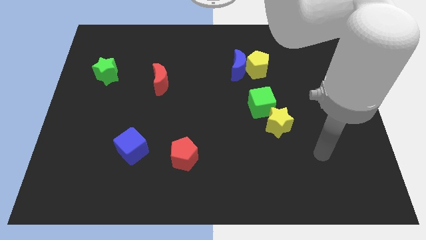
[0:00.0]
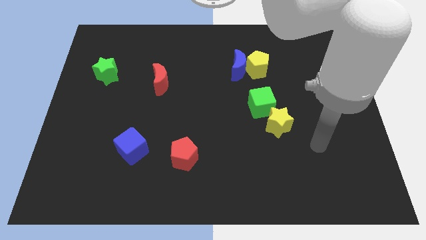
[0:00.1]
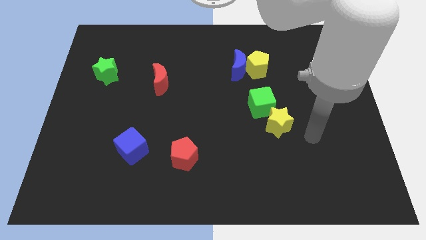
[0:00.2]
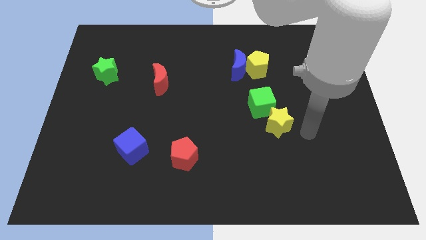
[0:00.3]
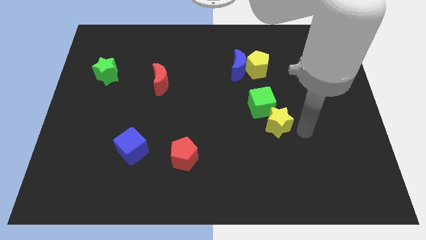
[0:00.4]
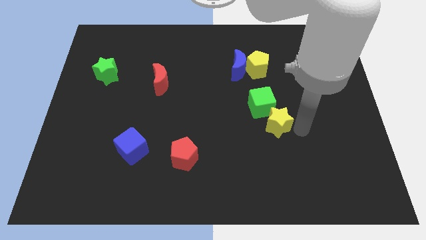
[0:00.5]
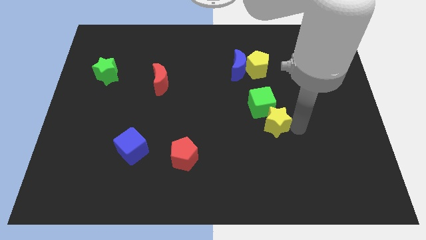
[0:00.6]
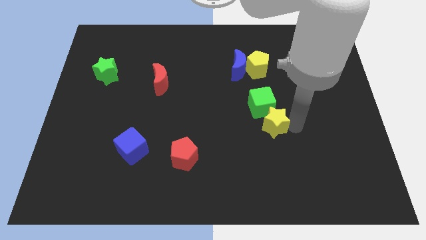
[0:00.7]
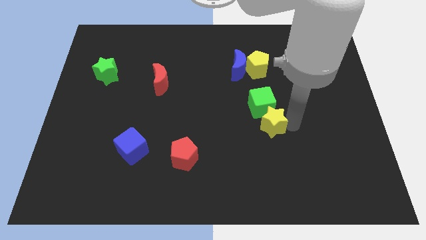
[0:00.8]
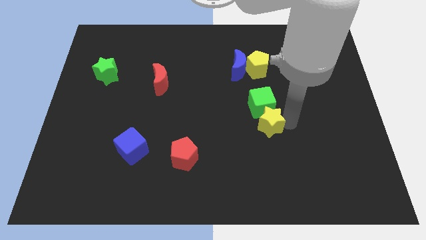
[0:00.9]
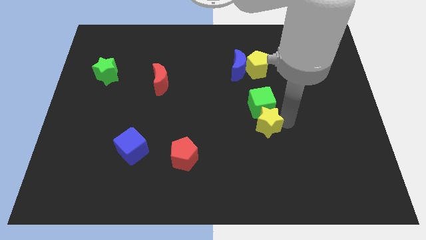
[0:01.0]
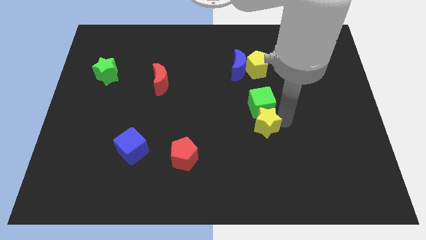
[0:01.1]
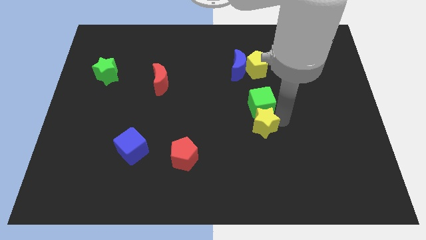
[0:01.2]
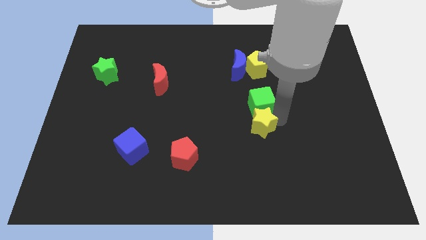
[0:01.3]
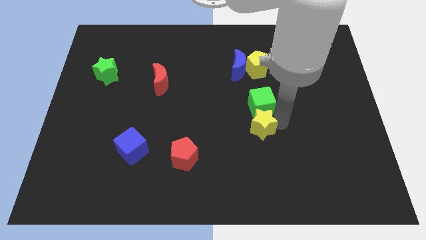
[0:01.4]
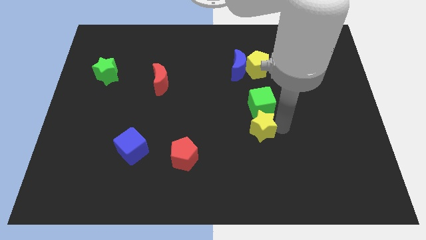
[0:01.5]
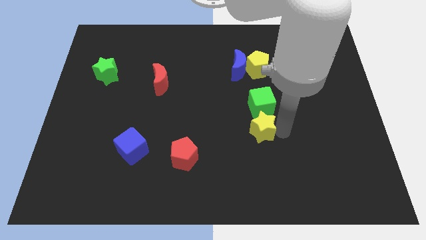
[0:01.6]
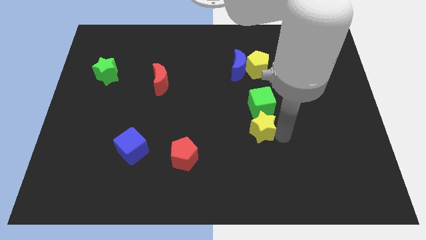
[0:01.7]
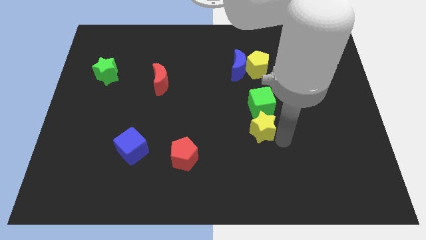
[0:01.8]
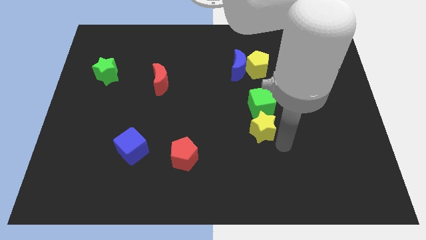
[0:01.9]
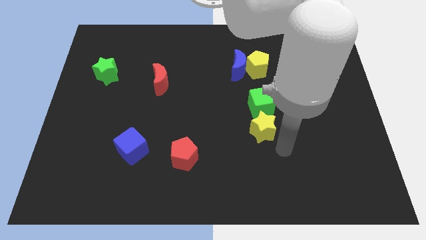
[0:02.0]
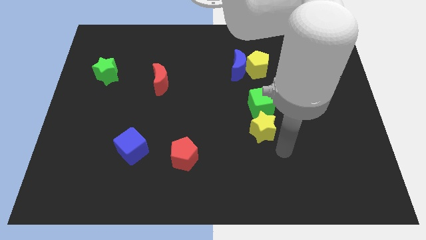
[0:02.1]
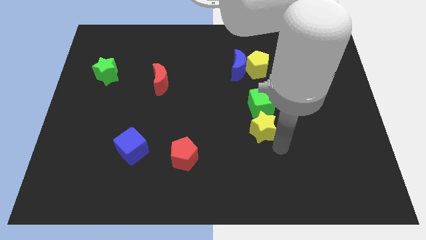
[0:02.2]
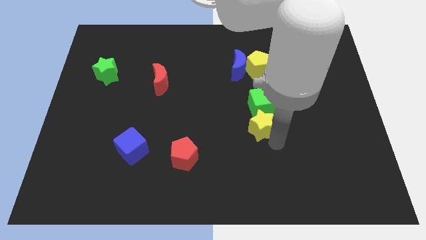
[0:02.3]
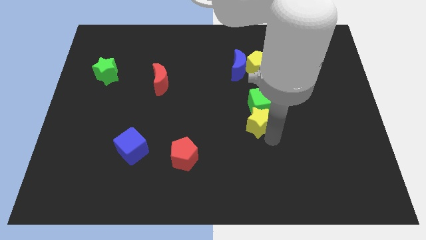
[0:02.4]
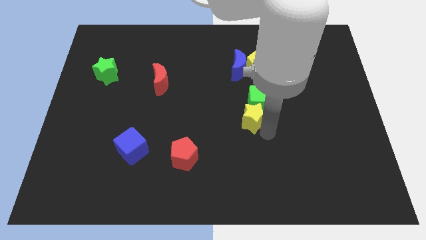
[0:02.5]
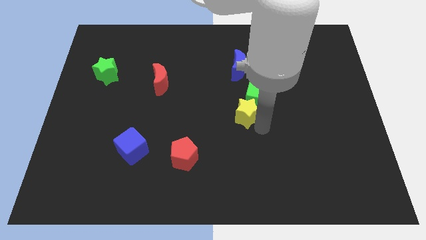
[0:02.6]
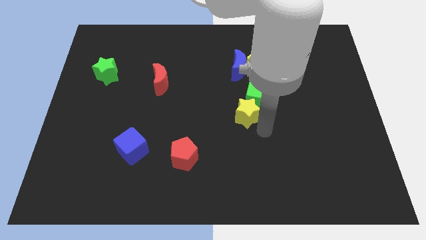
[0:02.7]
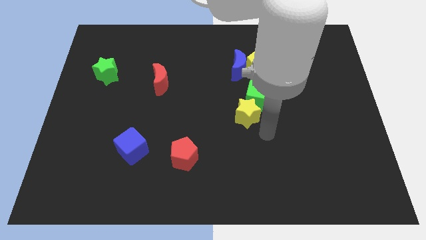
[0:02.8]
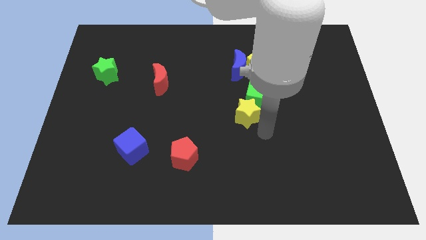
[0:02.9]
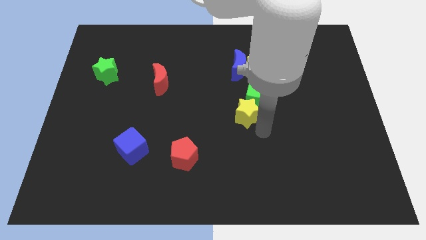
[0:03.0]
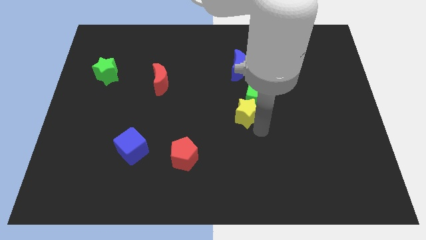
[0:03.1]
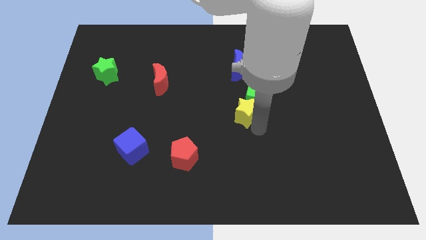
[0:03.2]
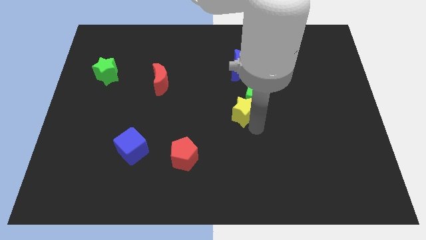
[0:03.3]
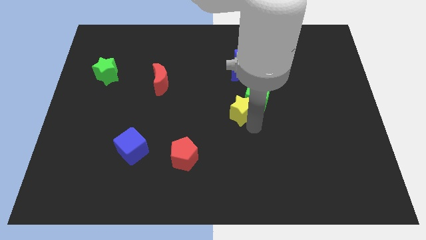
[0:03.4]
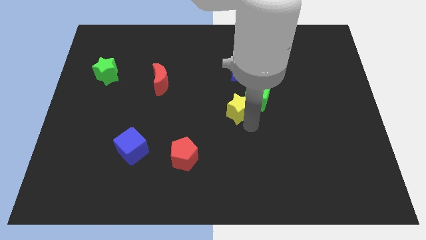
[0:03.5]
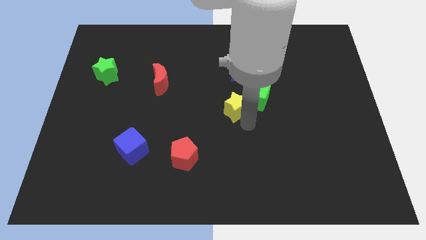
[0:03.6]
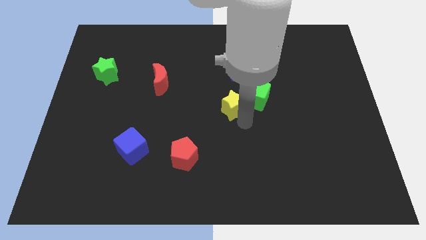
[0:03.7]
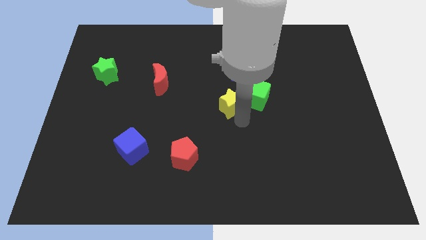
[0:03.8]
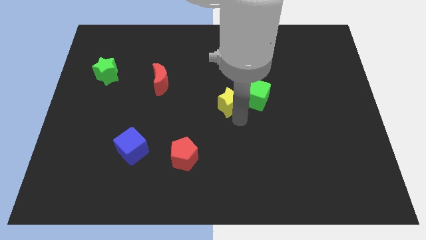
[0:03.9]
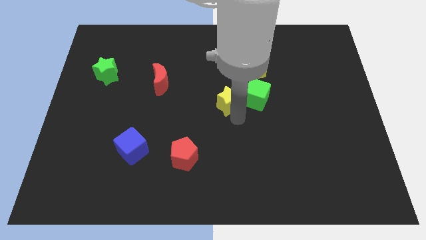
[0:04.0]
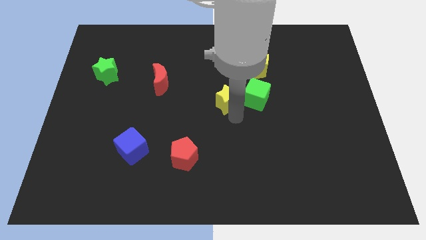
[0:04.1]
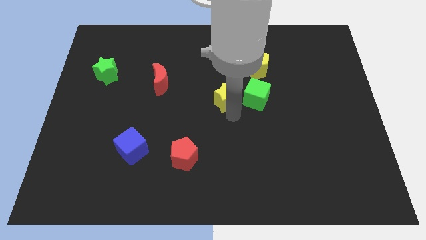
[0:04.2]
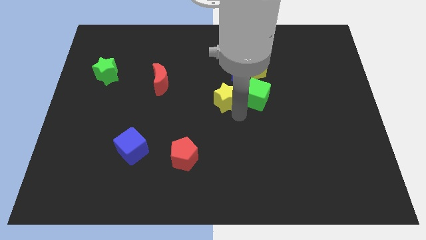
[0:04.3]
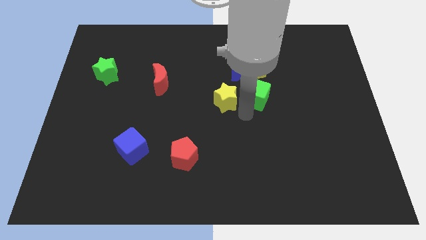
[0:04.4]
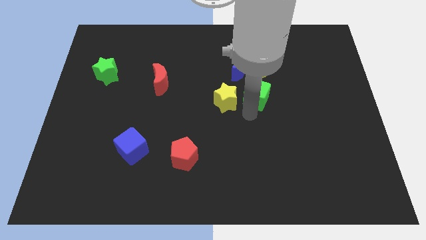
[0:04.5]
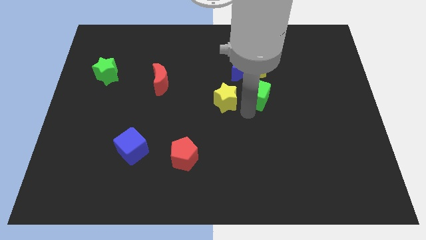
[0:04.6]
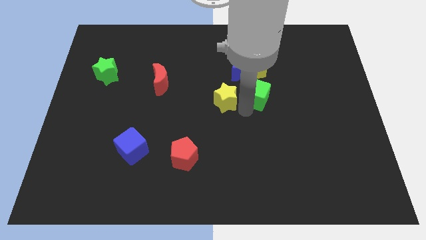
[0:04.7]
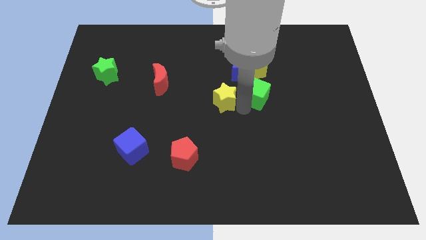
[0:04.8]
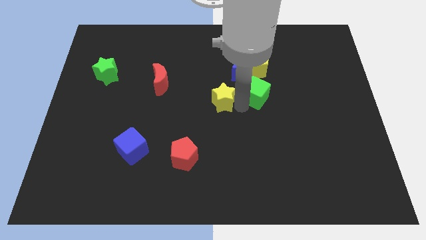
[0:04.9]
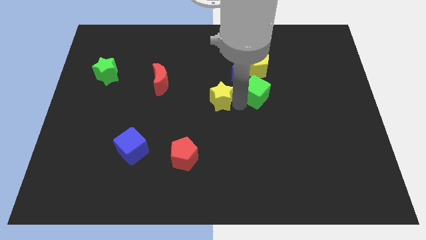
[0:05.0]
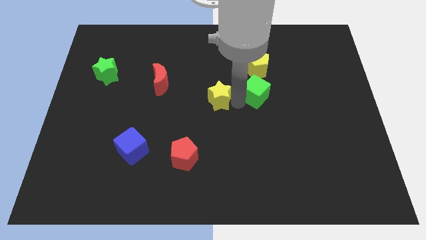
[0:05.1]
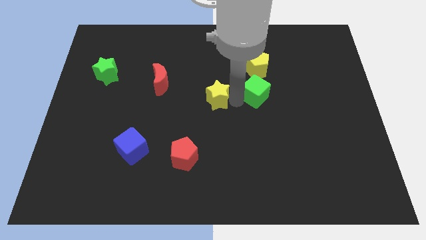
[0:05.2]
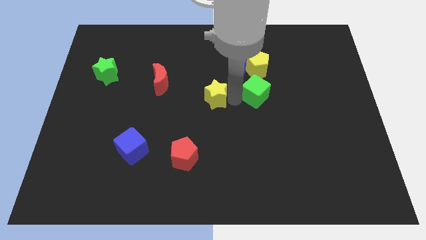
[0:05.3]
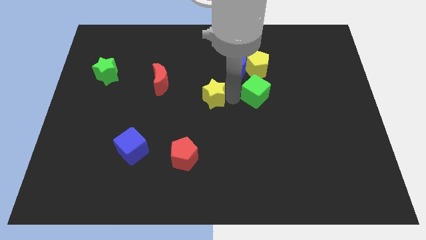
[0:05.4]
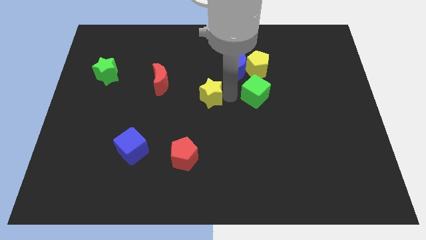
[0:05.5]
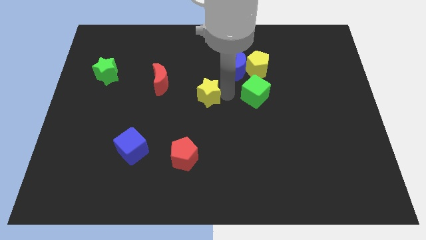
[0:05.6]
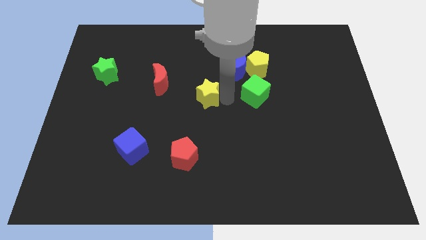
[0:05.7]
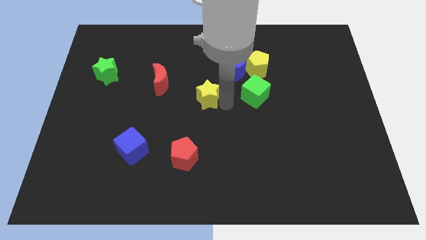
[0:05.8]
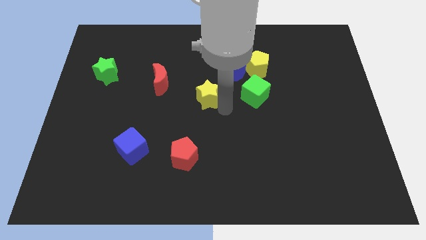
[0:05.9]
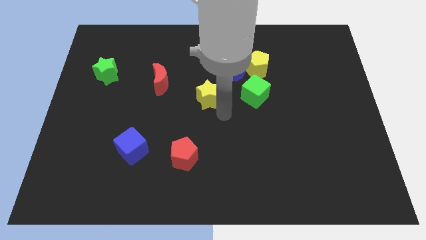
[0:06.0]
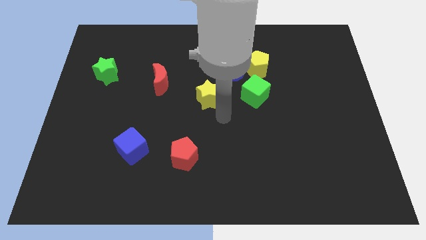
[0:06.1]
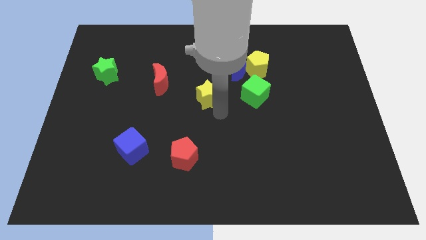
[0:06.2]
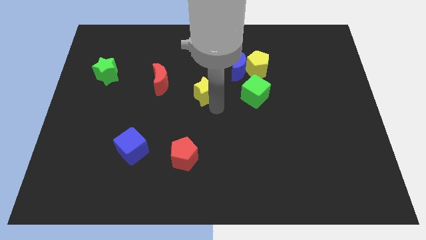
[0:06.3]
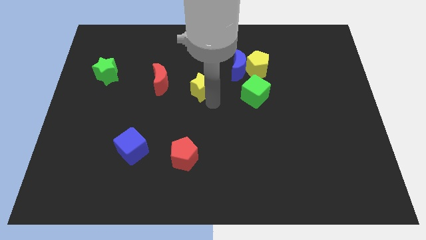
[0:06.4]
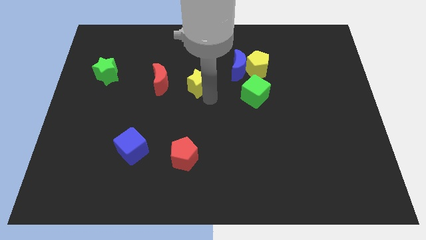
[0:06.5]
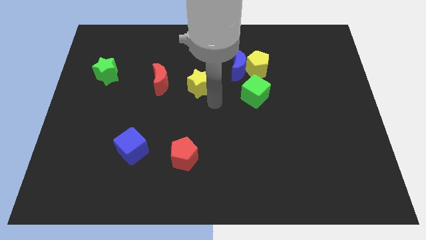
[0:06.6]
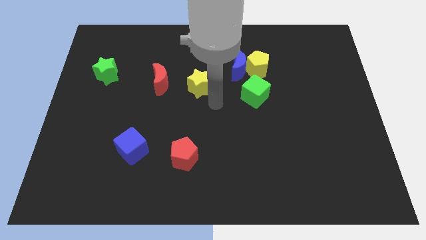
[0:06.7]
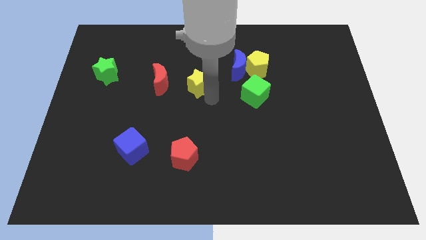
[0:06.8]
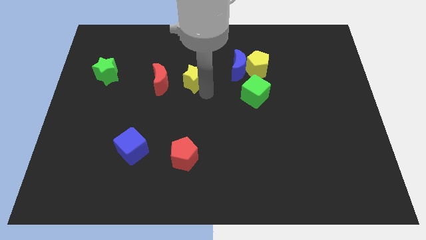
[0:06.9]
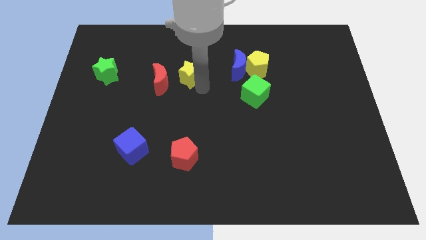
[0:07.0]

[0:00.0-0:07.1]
push the yellow star to the top right side of the red moon

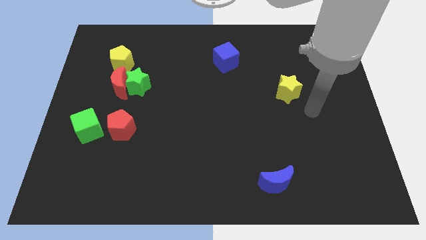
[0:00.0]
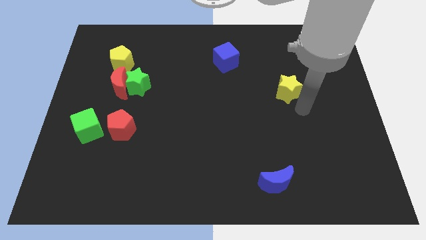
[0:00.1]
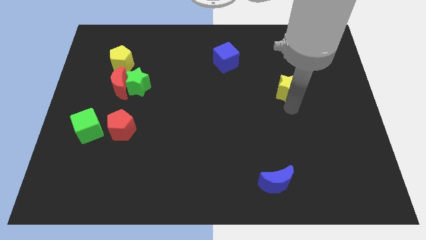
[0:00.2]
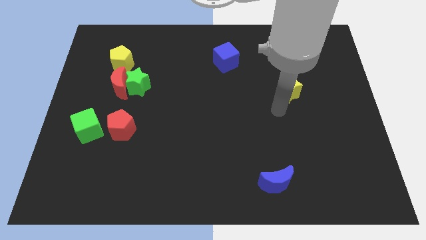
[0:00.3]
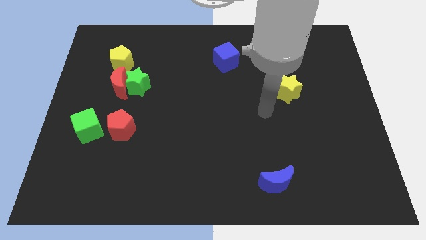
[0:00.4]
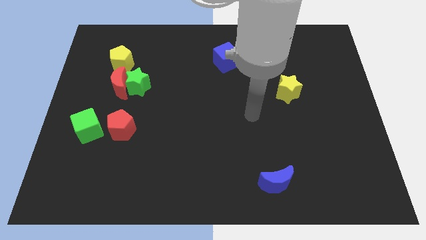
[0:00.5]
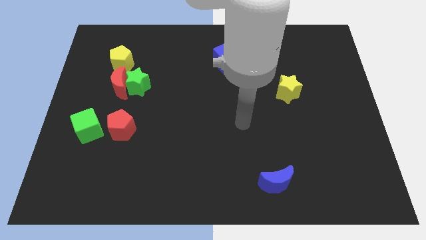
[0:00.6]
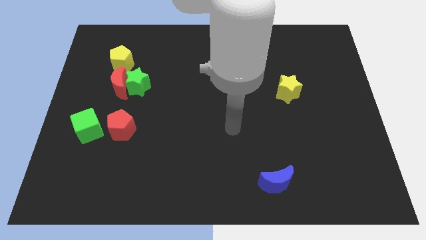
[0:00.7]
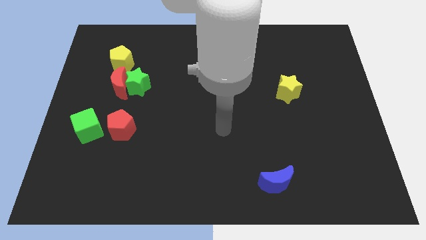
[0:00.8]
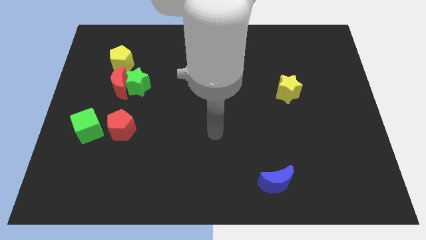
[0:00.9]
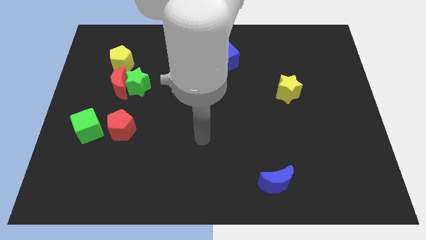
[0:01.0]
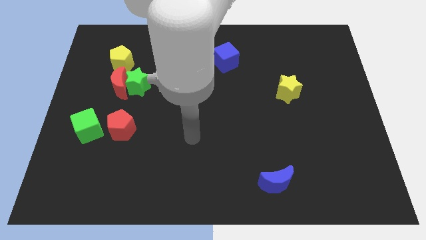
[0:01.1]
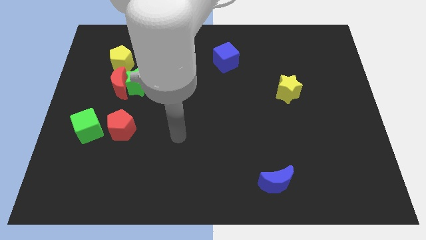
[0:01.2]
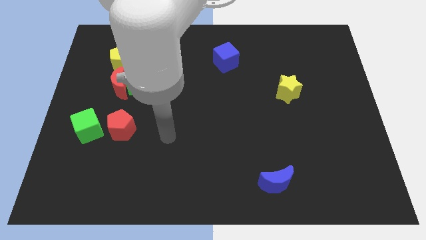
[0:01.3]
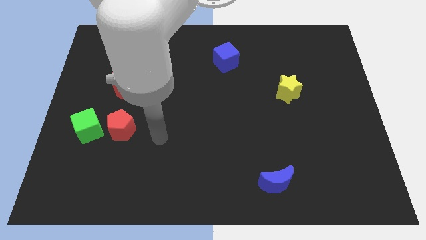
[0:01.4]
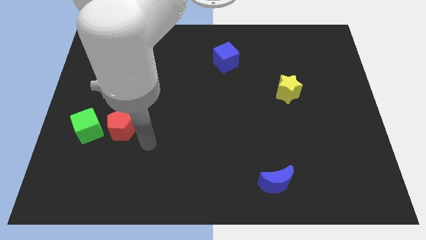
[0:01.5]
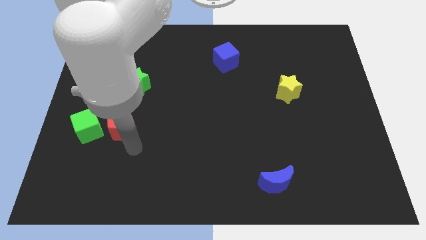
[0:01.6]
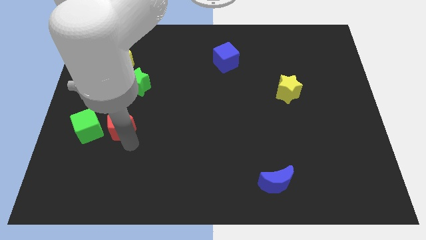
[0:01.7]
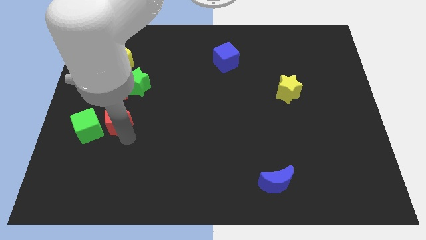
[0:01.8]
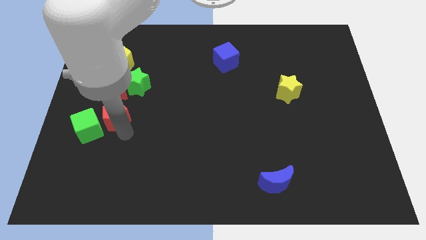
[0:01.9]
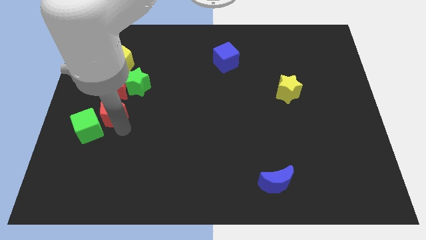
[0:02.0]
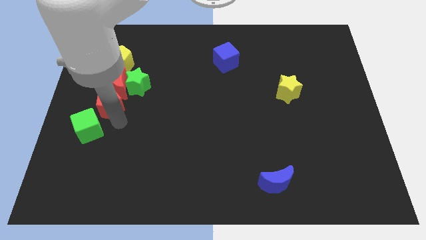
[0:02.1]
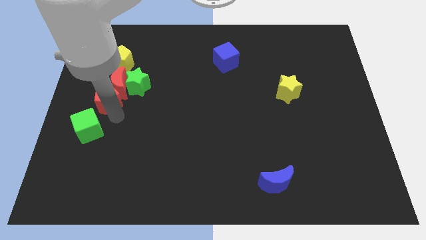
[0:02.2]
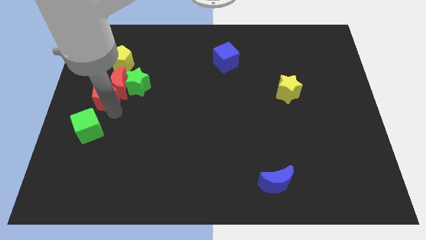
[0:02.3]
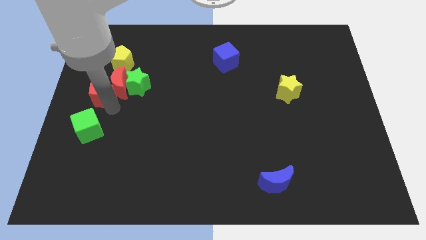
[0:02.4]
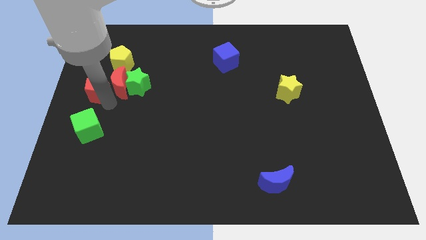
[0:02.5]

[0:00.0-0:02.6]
slide the red pentagon to the bottom left of the yellow pentagon
